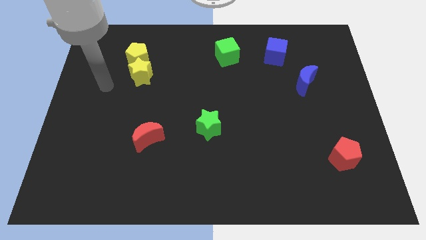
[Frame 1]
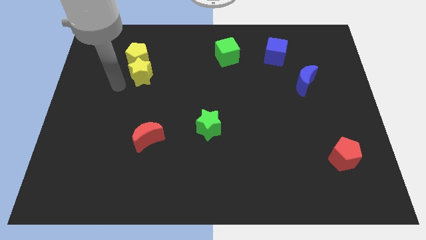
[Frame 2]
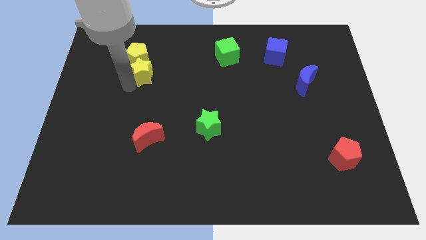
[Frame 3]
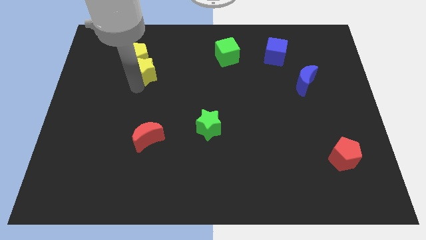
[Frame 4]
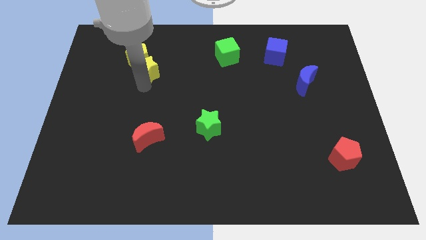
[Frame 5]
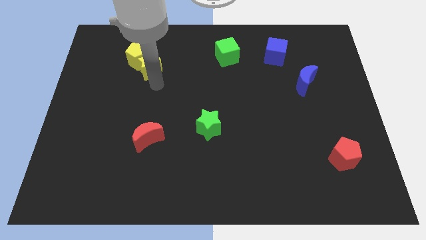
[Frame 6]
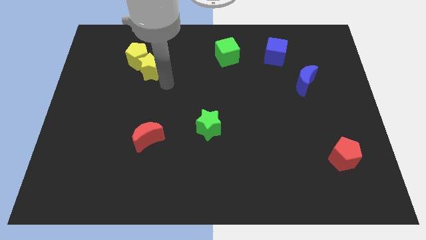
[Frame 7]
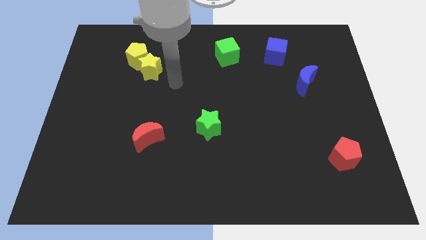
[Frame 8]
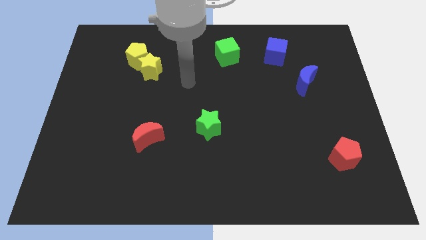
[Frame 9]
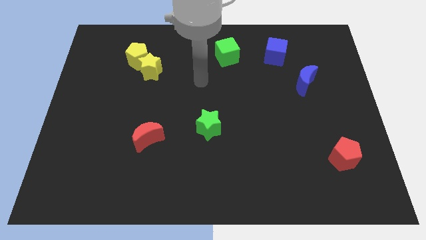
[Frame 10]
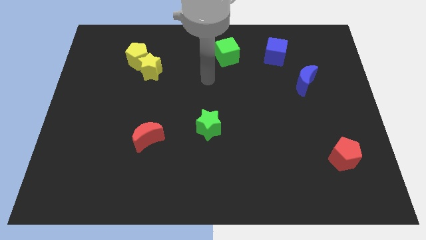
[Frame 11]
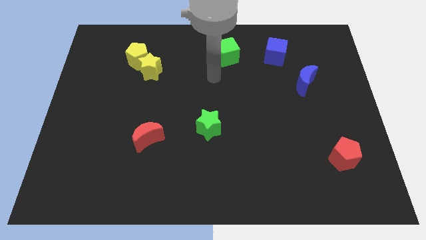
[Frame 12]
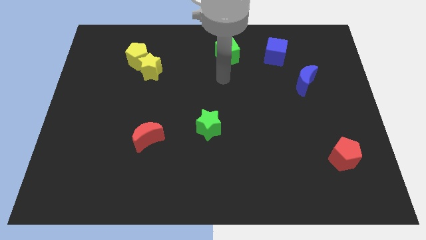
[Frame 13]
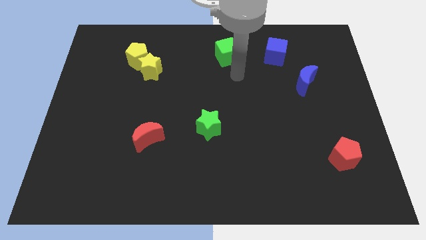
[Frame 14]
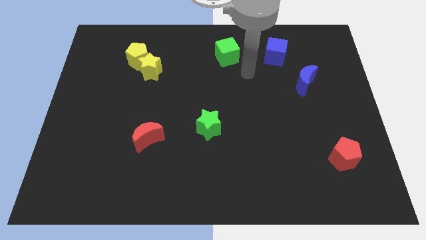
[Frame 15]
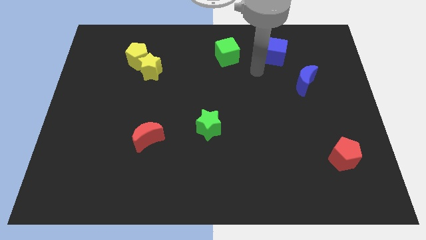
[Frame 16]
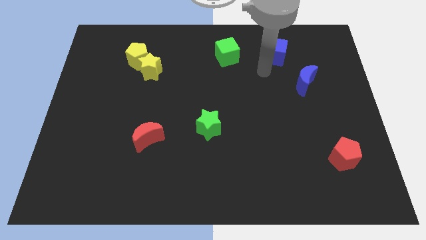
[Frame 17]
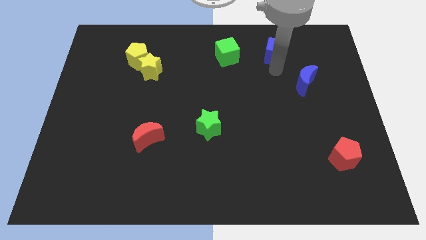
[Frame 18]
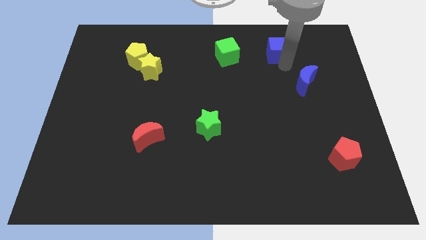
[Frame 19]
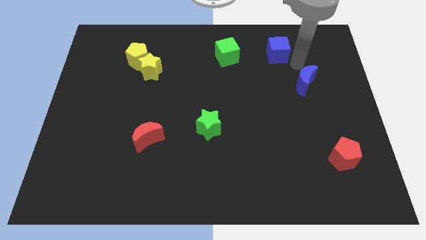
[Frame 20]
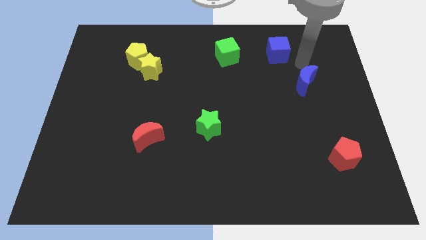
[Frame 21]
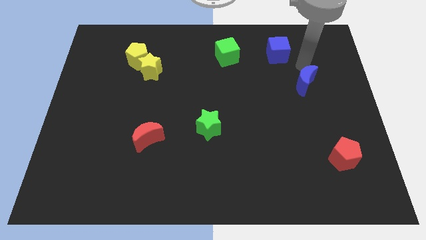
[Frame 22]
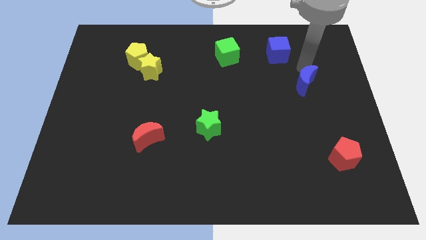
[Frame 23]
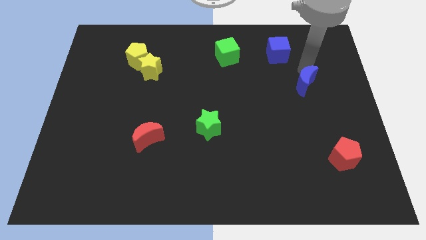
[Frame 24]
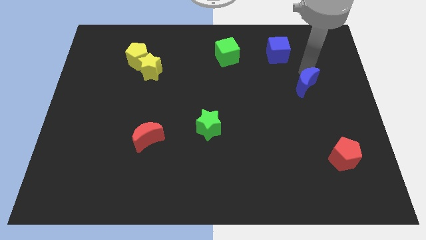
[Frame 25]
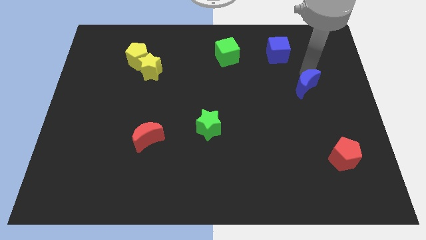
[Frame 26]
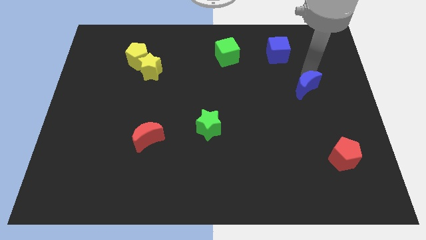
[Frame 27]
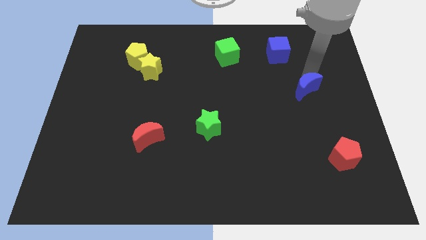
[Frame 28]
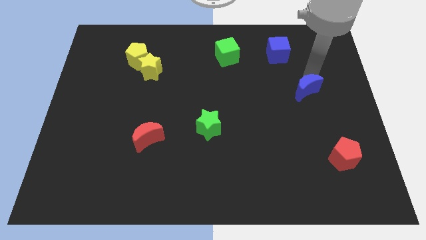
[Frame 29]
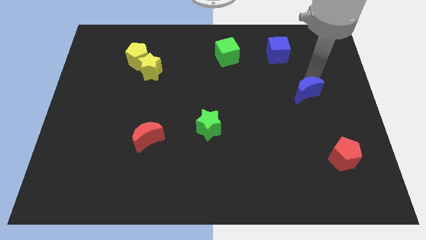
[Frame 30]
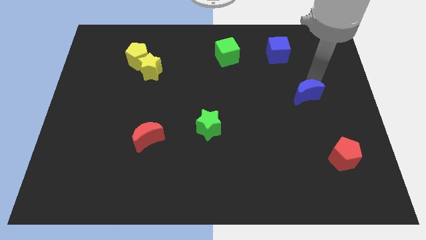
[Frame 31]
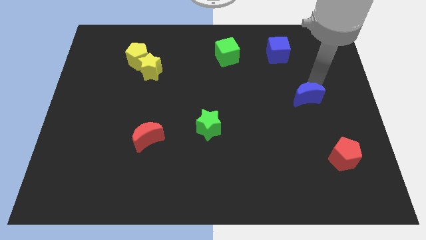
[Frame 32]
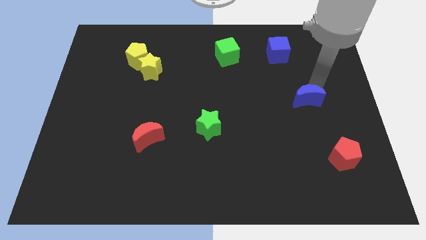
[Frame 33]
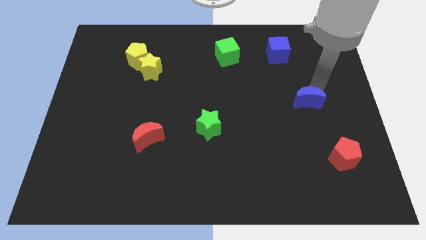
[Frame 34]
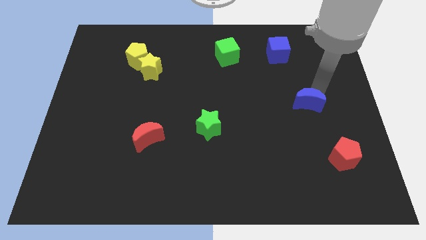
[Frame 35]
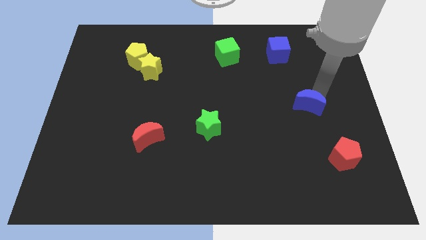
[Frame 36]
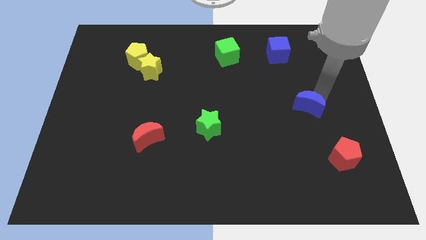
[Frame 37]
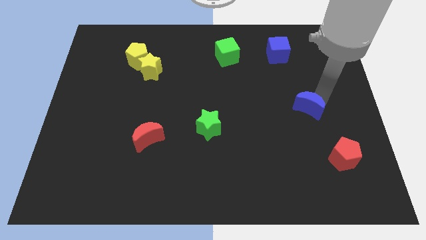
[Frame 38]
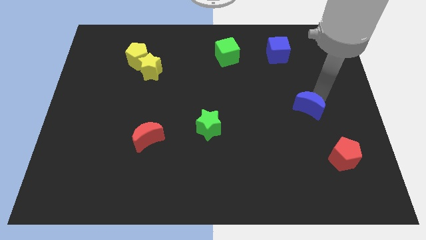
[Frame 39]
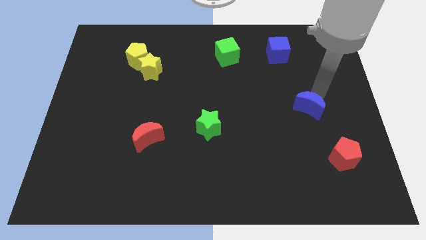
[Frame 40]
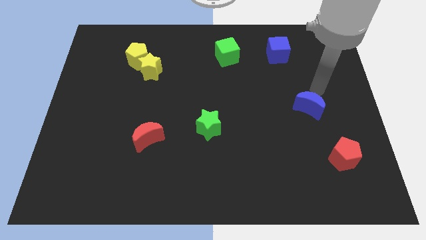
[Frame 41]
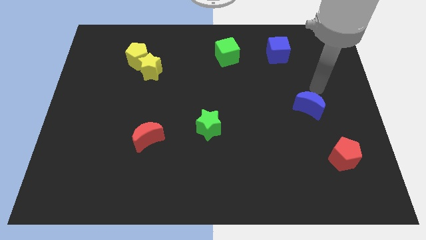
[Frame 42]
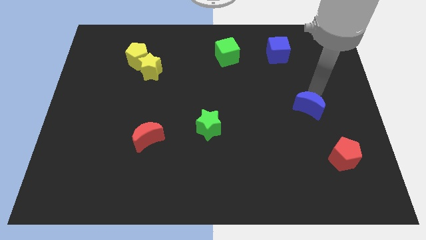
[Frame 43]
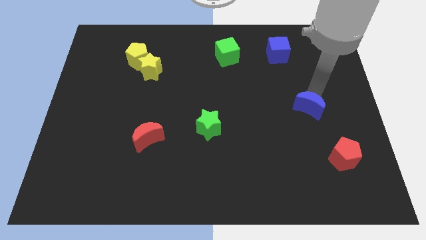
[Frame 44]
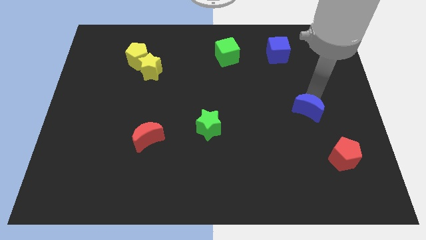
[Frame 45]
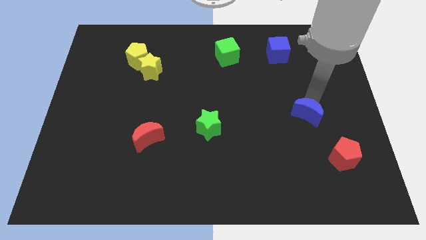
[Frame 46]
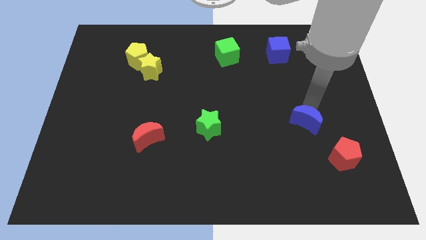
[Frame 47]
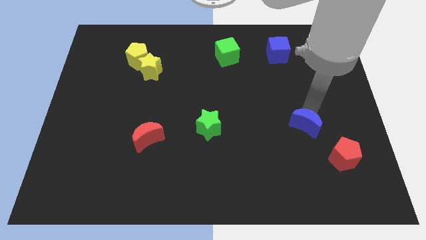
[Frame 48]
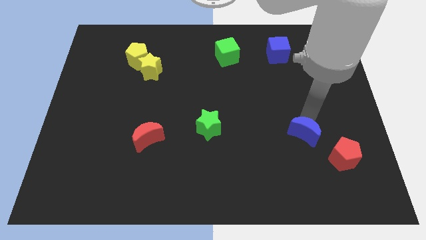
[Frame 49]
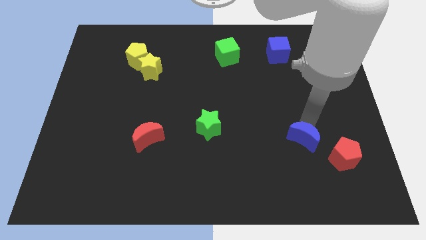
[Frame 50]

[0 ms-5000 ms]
move the blue moon to the left of the red pentagon

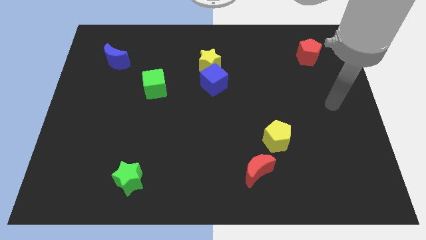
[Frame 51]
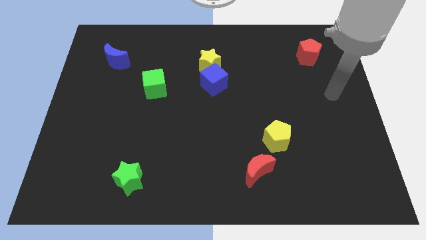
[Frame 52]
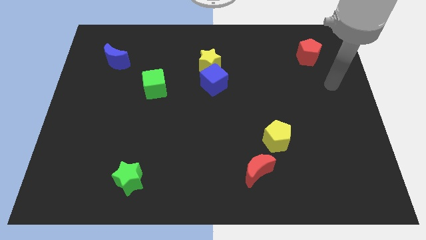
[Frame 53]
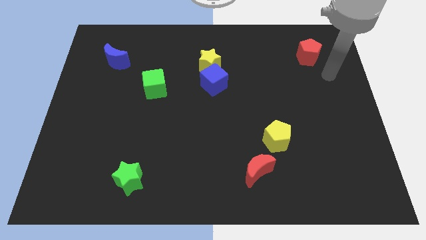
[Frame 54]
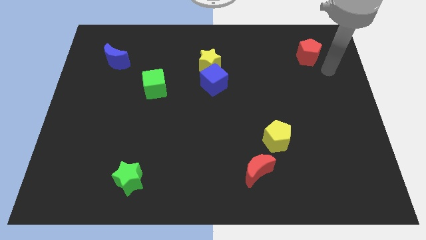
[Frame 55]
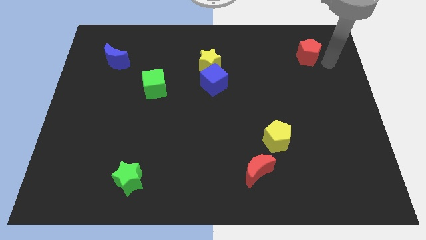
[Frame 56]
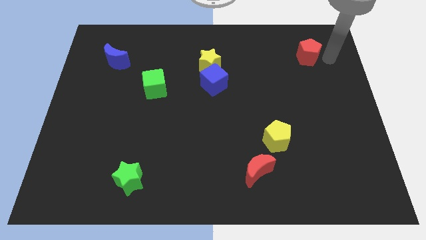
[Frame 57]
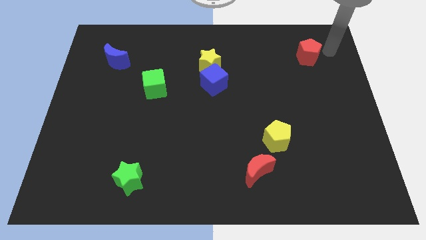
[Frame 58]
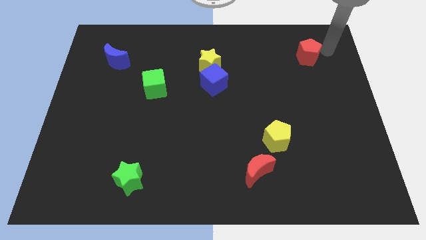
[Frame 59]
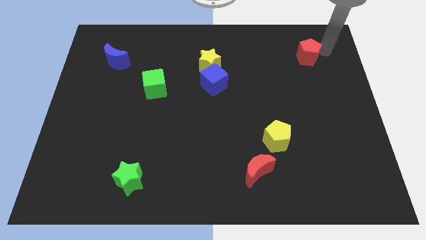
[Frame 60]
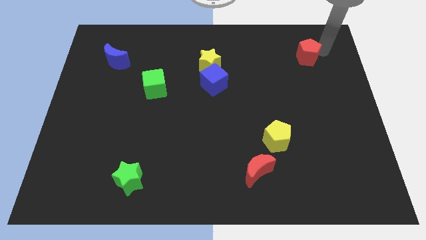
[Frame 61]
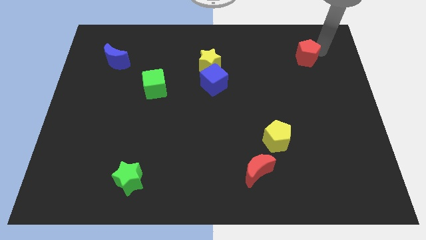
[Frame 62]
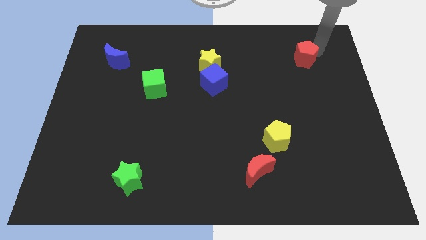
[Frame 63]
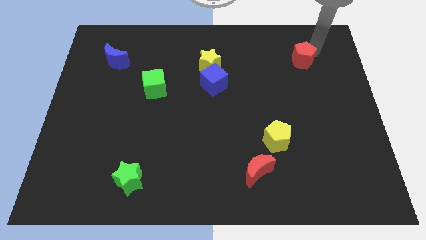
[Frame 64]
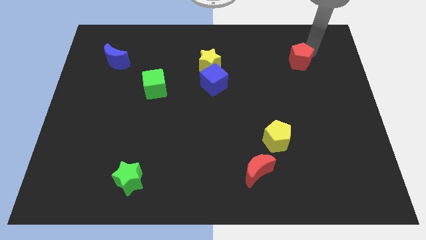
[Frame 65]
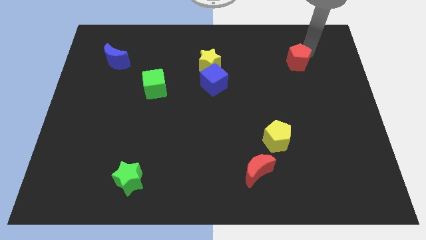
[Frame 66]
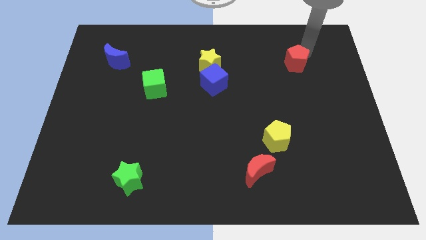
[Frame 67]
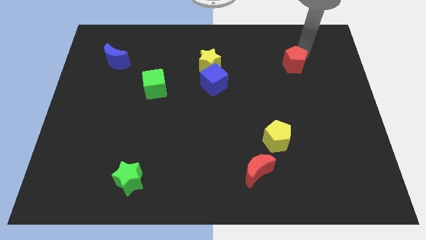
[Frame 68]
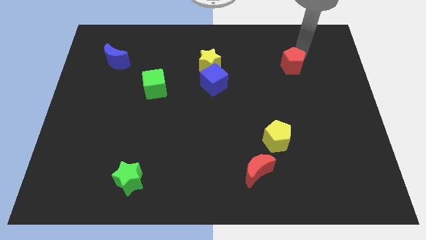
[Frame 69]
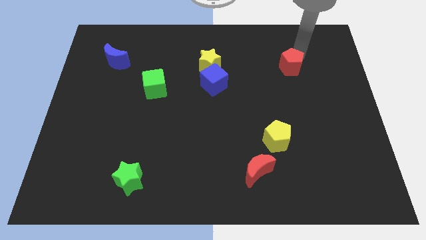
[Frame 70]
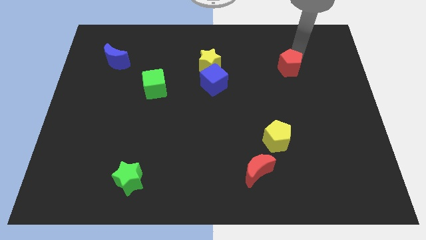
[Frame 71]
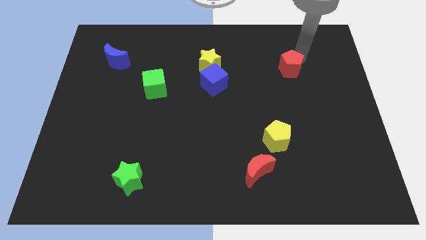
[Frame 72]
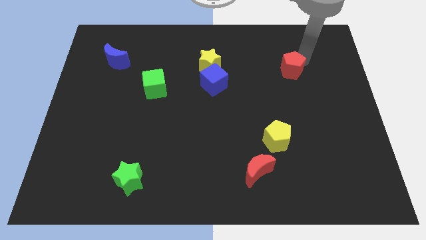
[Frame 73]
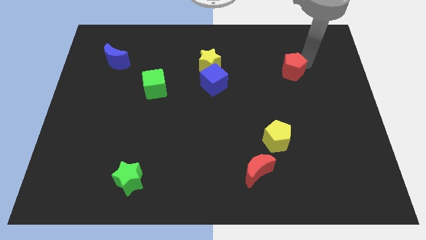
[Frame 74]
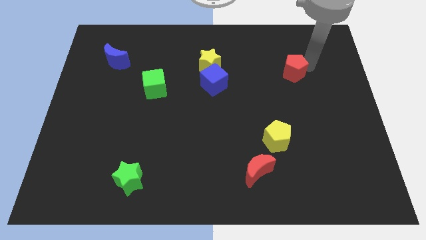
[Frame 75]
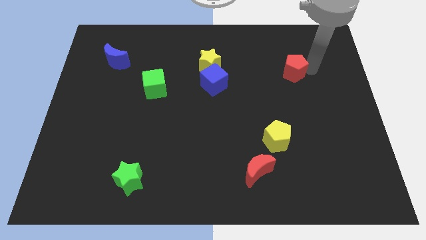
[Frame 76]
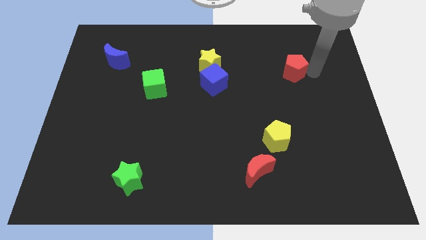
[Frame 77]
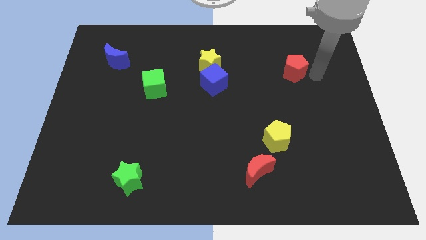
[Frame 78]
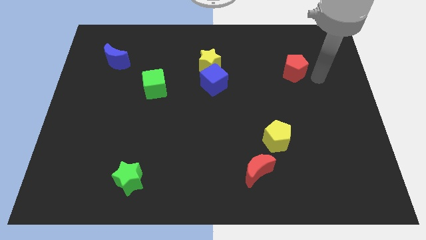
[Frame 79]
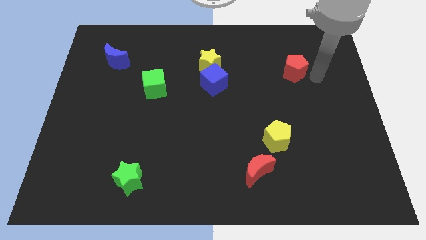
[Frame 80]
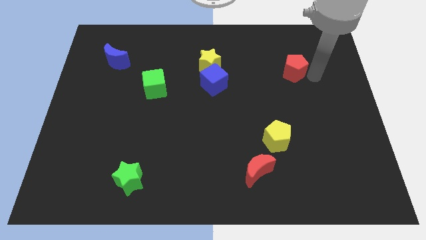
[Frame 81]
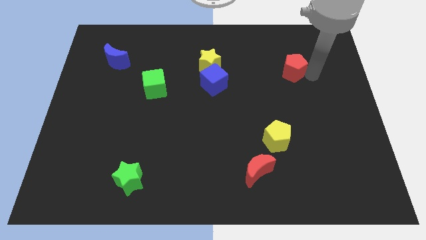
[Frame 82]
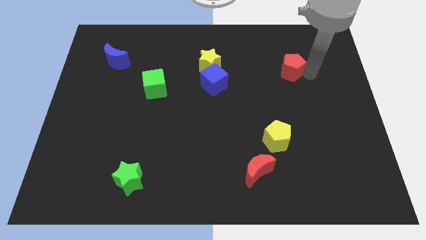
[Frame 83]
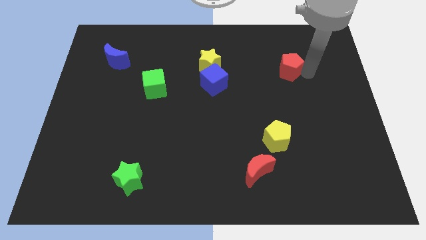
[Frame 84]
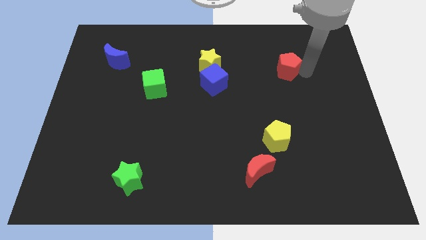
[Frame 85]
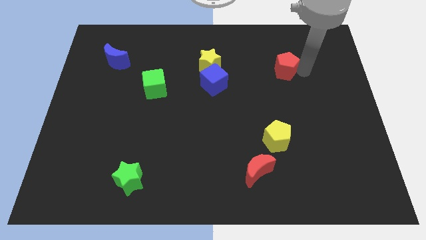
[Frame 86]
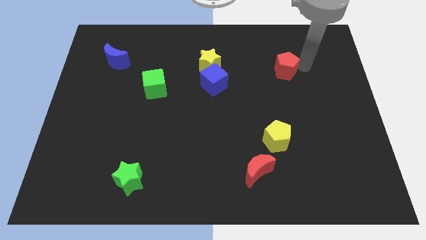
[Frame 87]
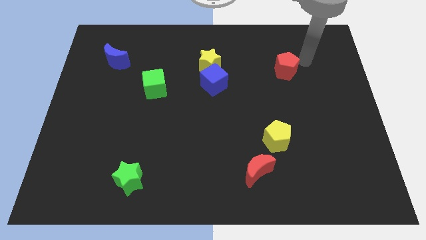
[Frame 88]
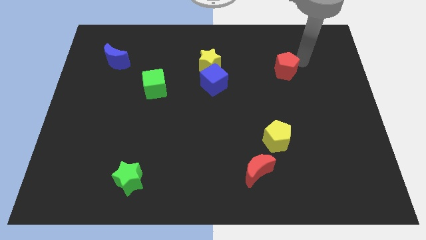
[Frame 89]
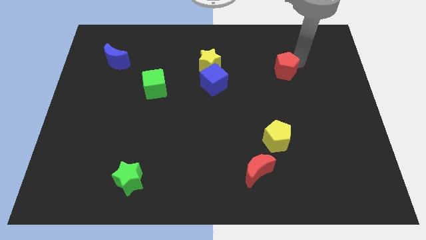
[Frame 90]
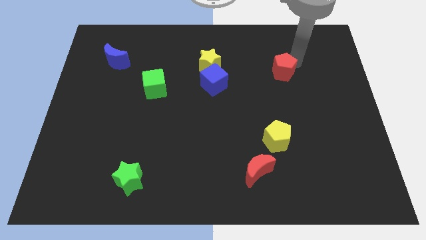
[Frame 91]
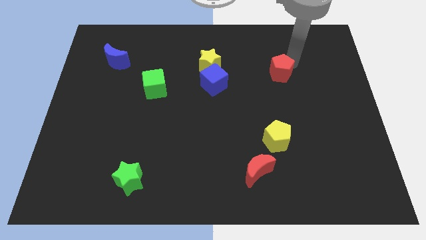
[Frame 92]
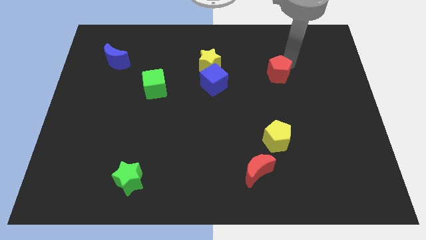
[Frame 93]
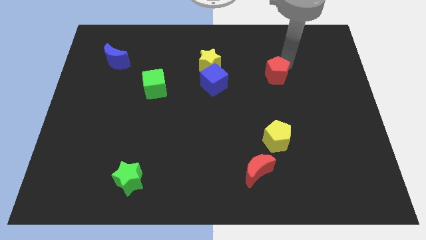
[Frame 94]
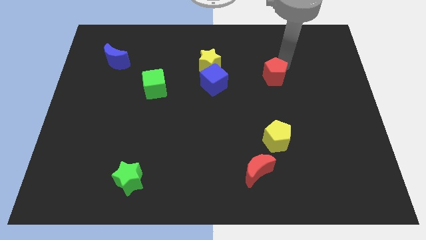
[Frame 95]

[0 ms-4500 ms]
move the red pentagon to the right of the blue cube
